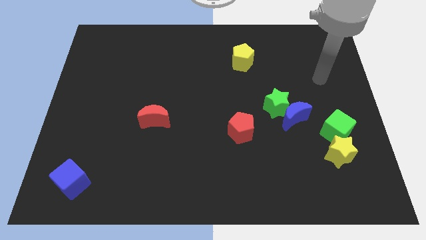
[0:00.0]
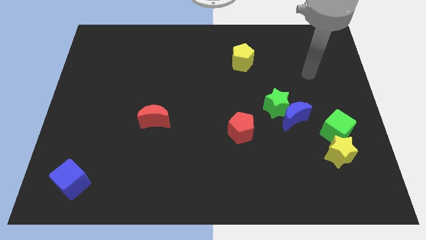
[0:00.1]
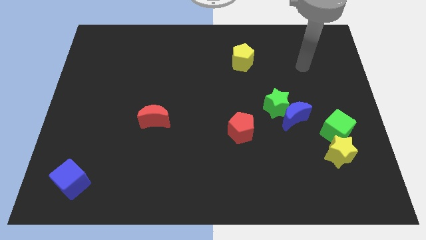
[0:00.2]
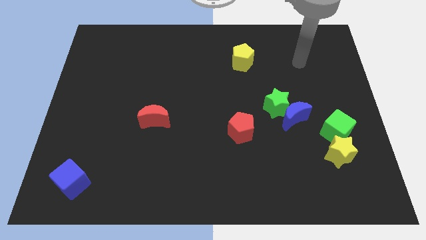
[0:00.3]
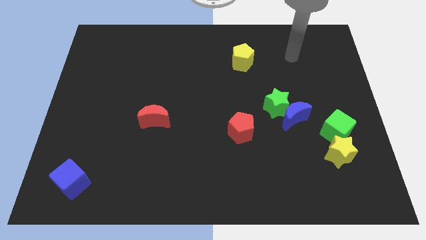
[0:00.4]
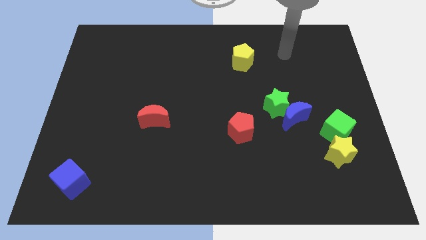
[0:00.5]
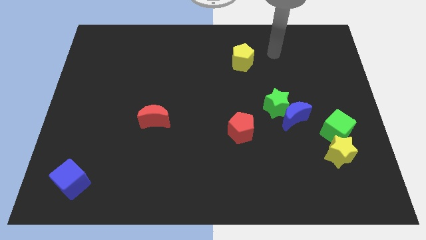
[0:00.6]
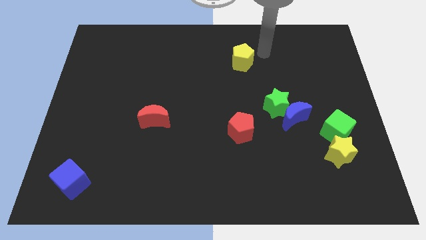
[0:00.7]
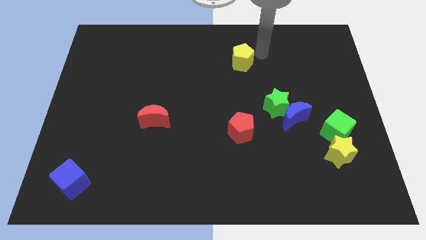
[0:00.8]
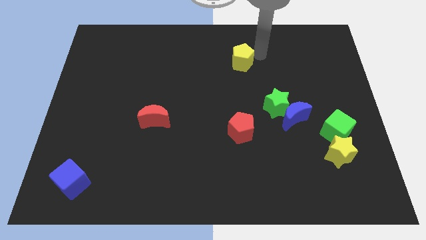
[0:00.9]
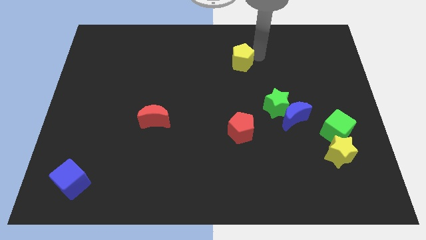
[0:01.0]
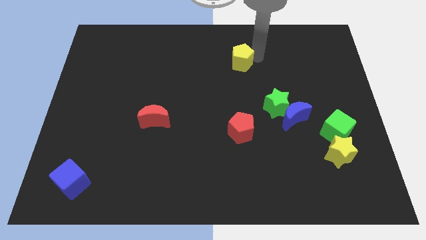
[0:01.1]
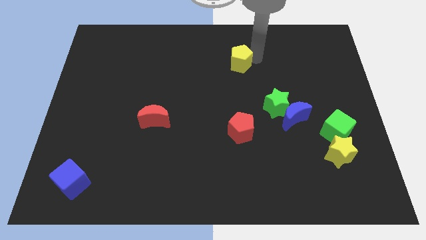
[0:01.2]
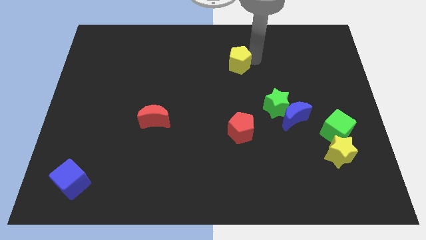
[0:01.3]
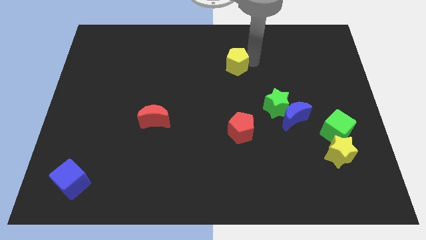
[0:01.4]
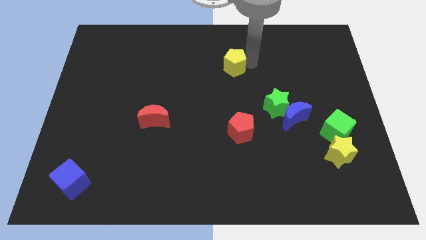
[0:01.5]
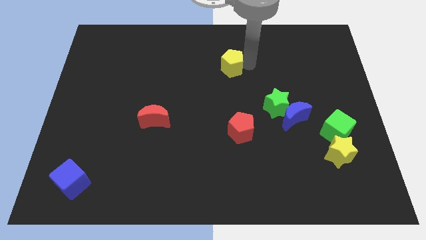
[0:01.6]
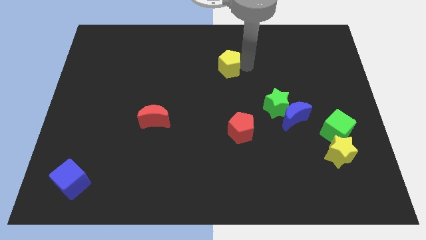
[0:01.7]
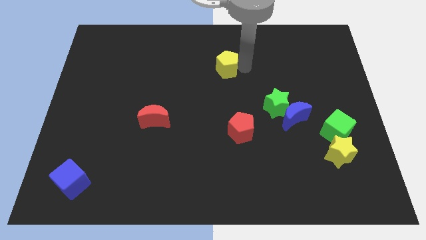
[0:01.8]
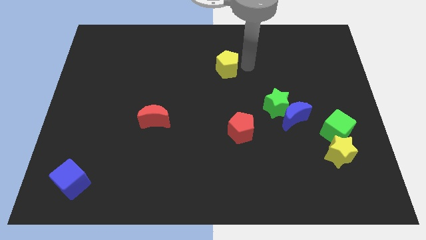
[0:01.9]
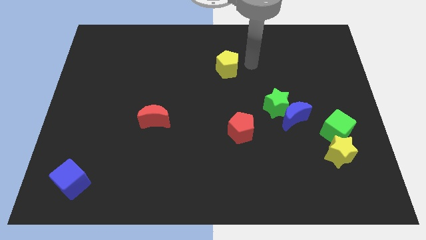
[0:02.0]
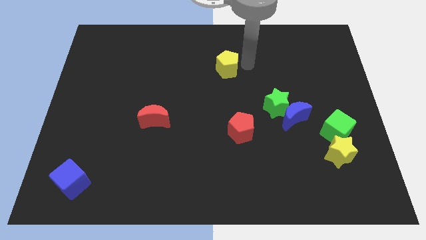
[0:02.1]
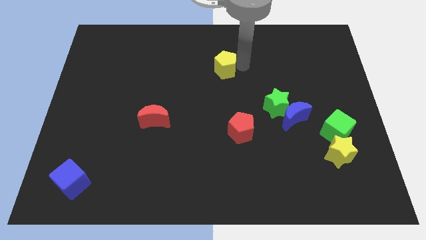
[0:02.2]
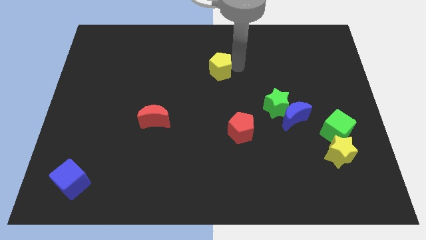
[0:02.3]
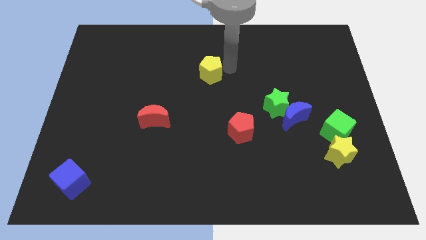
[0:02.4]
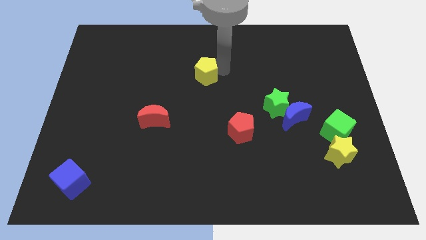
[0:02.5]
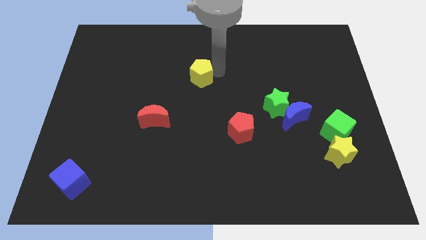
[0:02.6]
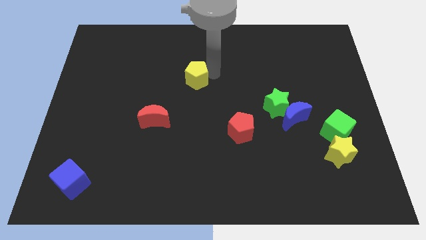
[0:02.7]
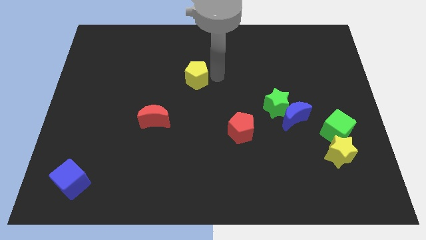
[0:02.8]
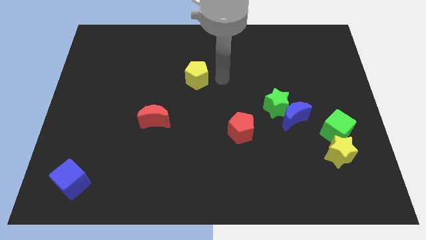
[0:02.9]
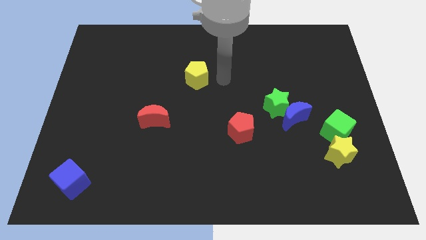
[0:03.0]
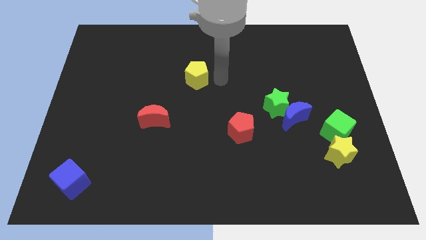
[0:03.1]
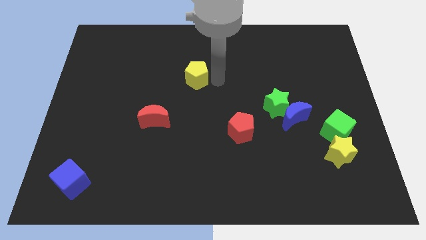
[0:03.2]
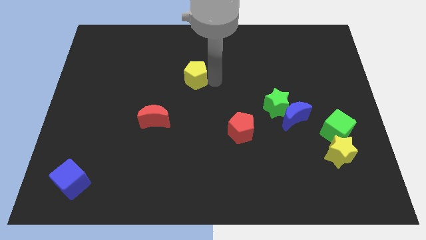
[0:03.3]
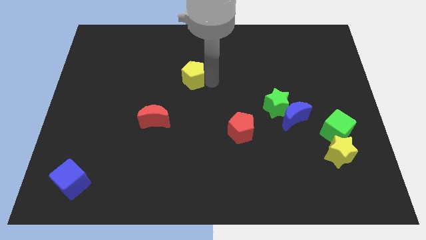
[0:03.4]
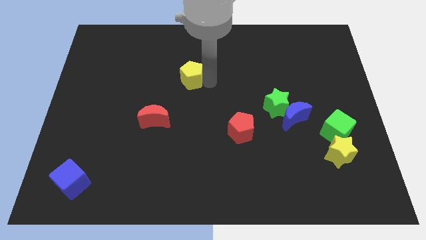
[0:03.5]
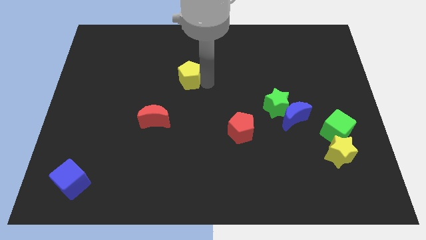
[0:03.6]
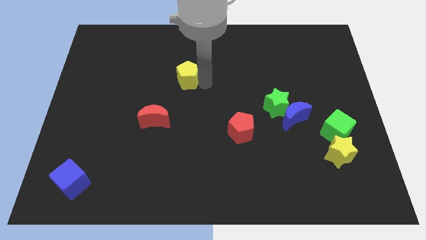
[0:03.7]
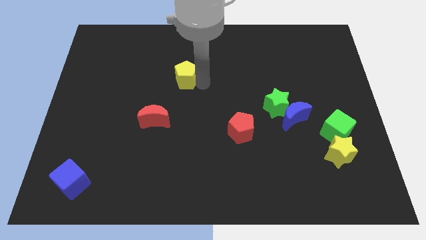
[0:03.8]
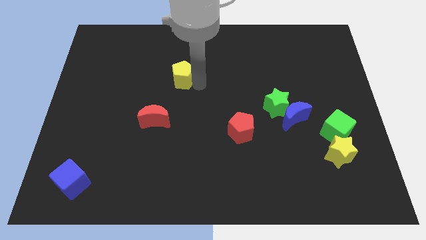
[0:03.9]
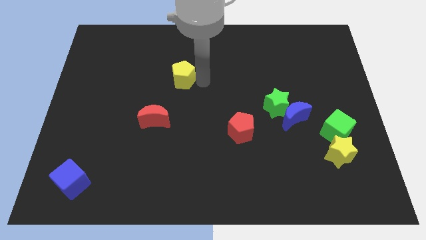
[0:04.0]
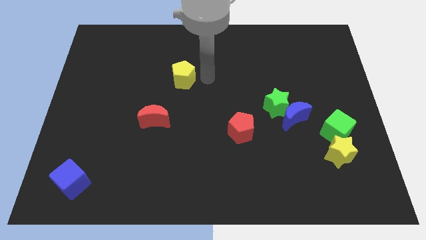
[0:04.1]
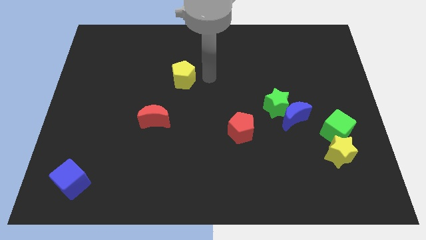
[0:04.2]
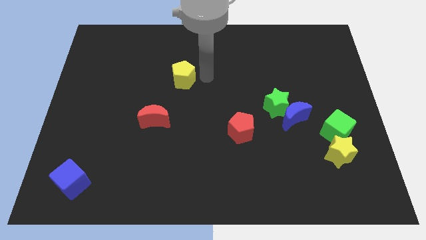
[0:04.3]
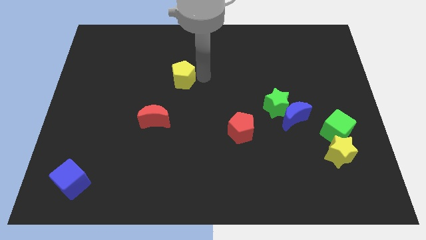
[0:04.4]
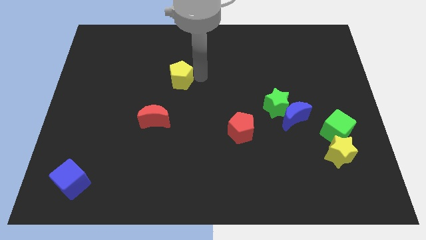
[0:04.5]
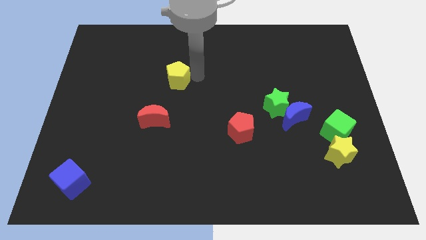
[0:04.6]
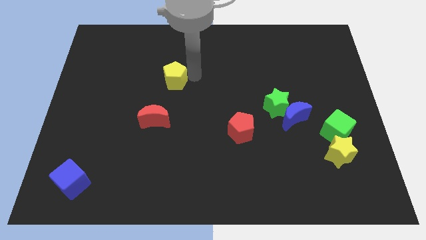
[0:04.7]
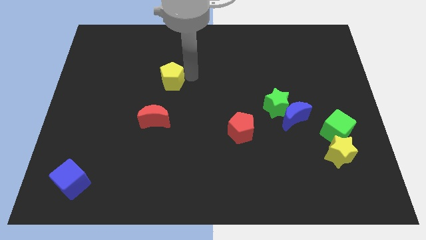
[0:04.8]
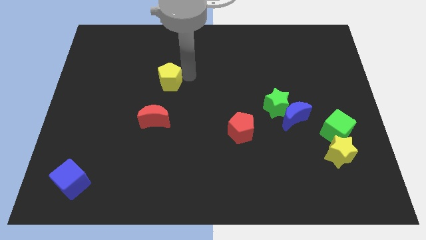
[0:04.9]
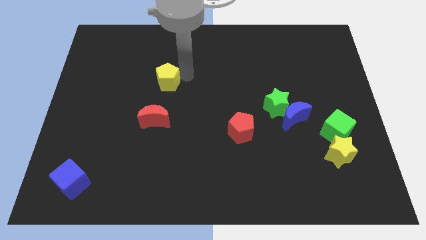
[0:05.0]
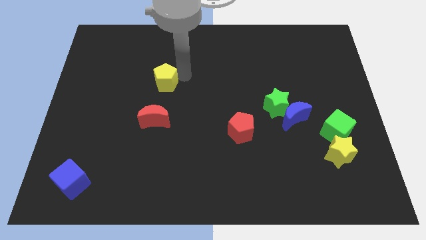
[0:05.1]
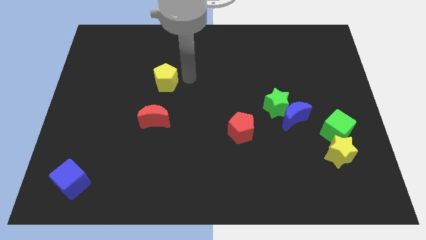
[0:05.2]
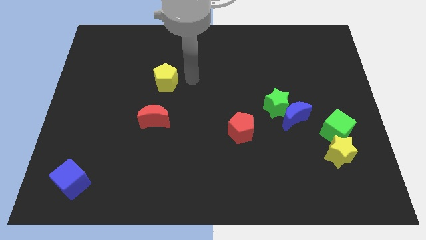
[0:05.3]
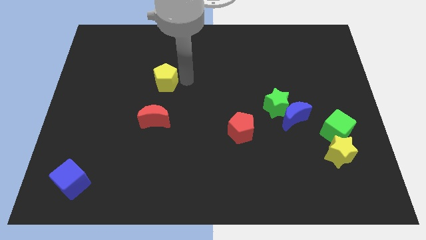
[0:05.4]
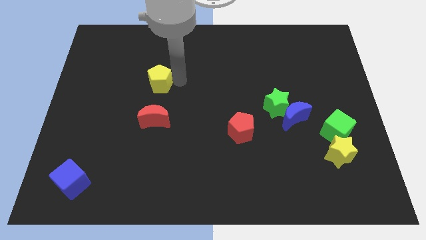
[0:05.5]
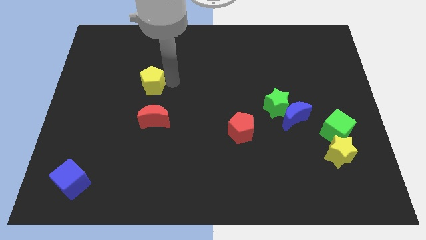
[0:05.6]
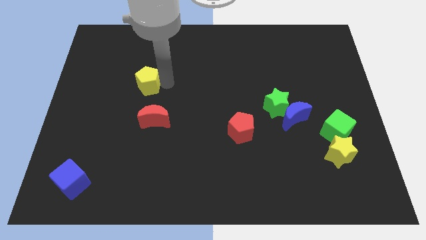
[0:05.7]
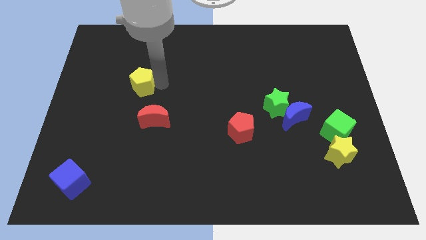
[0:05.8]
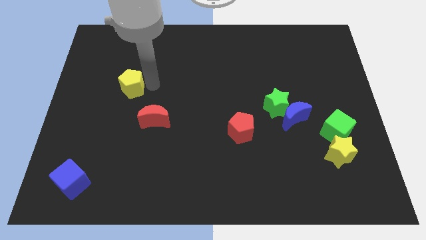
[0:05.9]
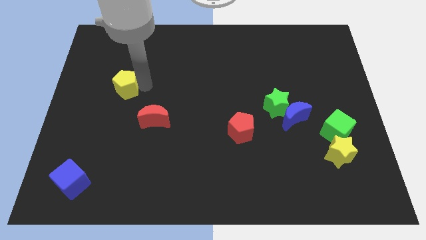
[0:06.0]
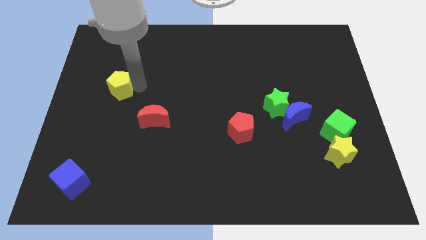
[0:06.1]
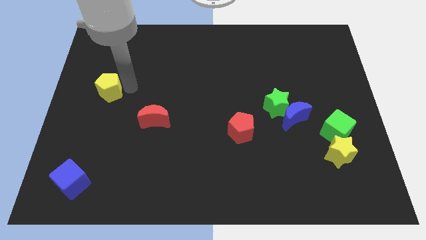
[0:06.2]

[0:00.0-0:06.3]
slide the yellow pentagon to the left side
